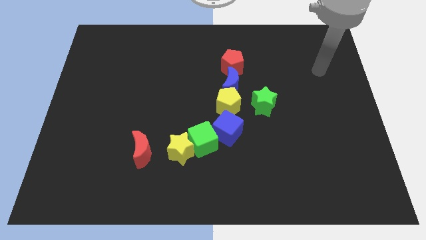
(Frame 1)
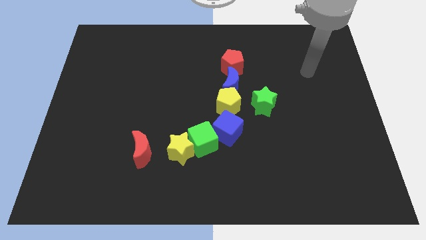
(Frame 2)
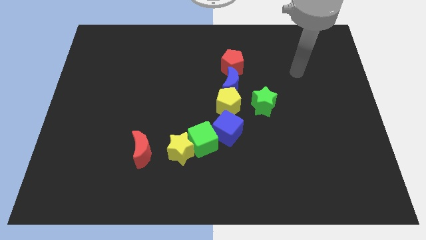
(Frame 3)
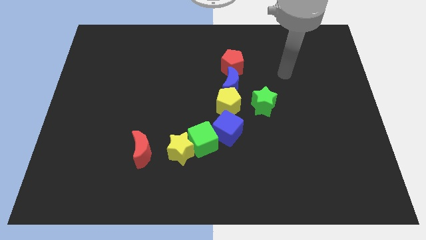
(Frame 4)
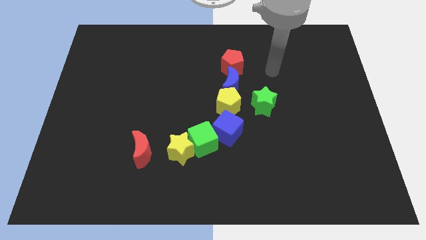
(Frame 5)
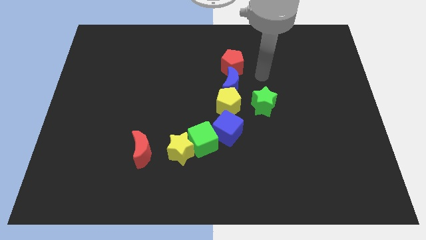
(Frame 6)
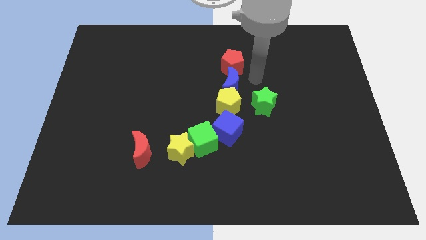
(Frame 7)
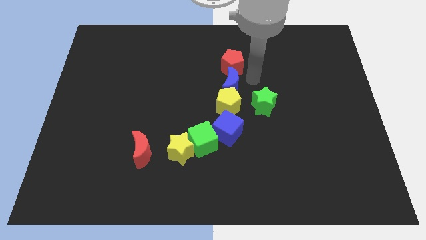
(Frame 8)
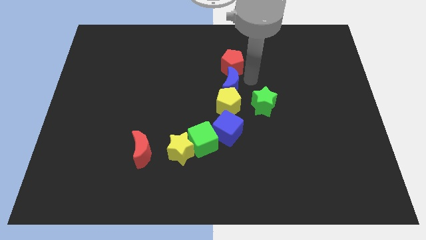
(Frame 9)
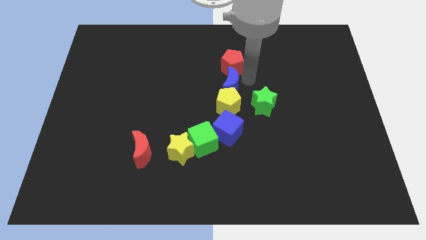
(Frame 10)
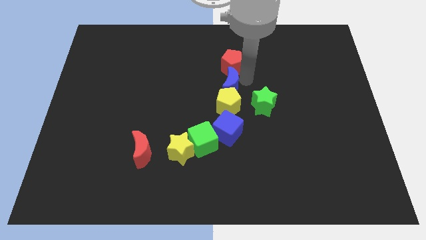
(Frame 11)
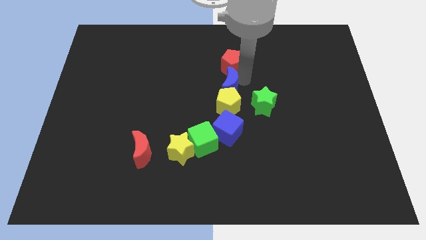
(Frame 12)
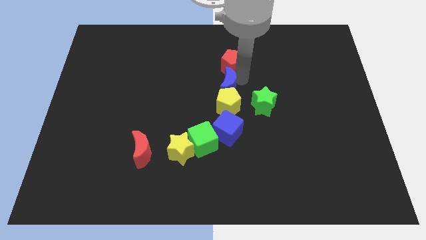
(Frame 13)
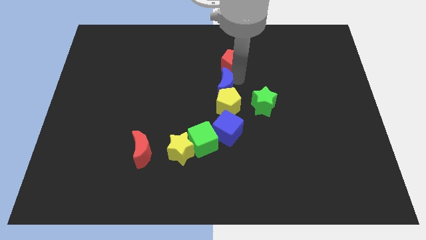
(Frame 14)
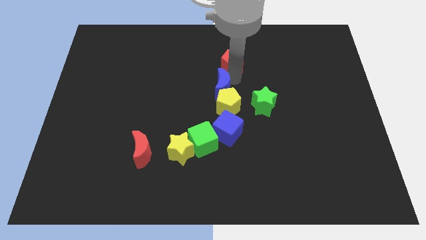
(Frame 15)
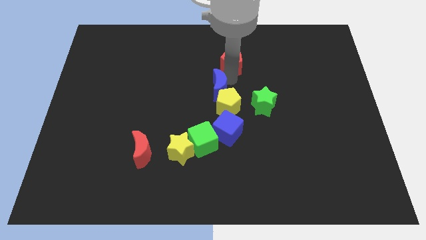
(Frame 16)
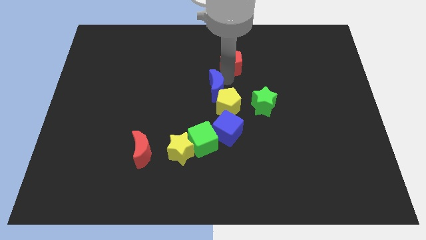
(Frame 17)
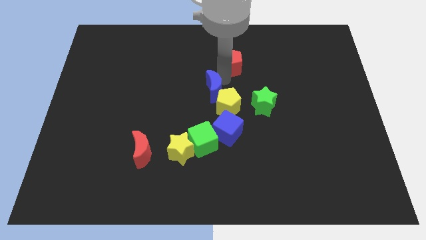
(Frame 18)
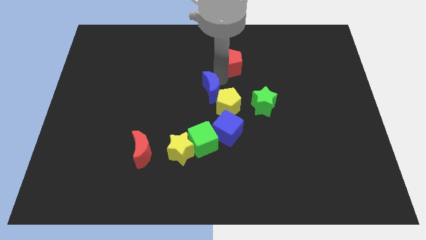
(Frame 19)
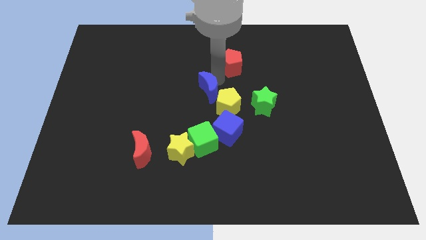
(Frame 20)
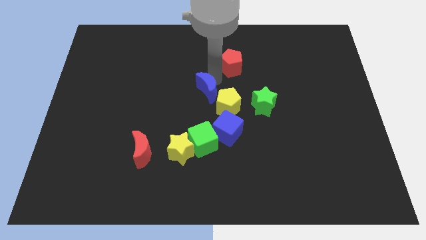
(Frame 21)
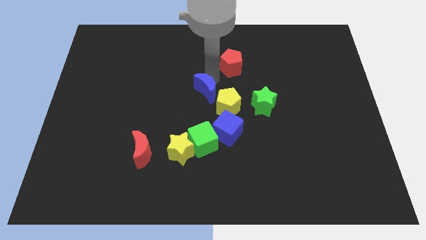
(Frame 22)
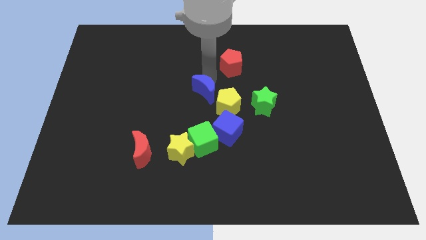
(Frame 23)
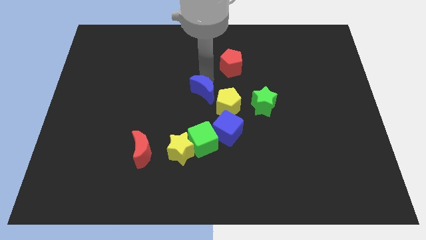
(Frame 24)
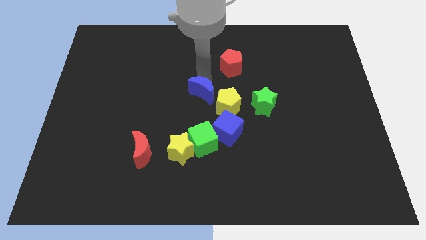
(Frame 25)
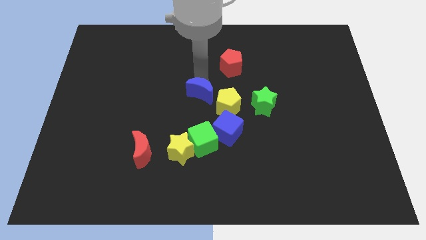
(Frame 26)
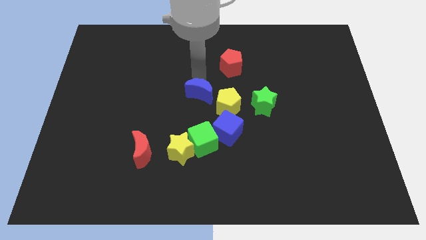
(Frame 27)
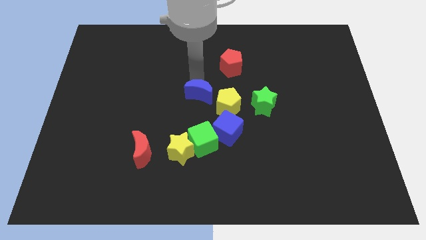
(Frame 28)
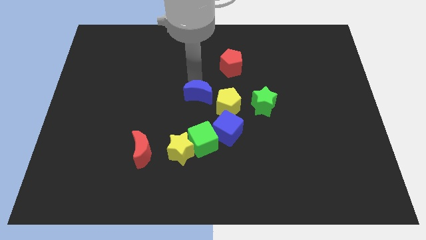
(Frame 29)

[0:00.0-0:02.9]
move the blue moon diagonally downwards and to the left a little

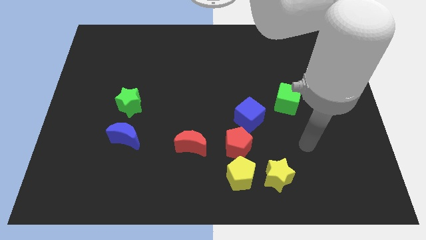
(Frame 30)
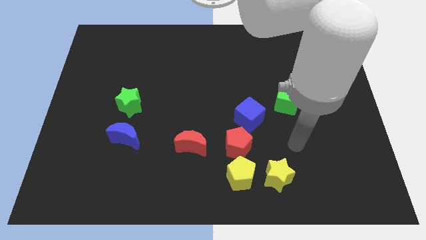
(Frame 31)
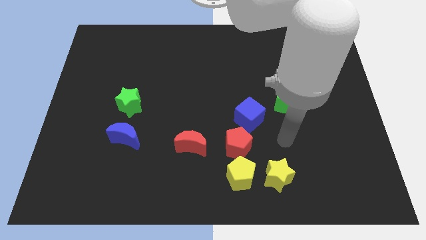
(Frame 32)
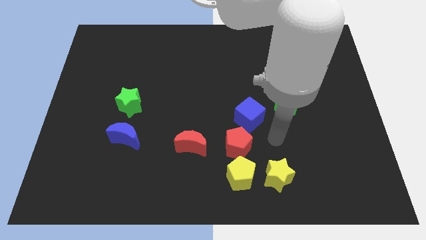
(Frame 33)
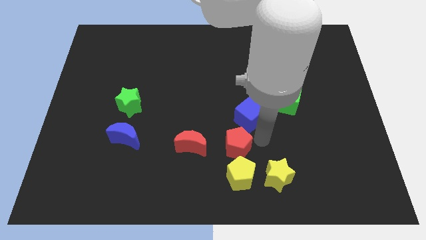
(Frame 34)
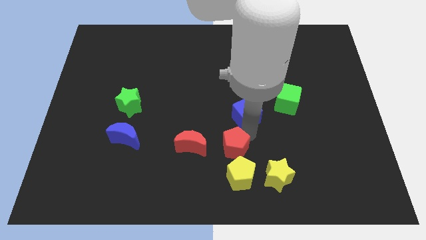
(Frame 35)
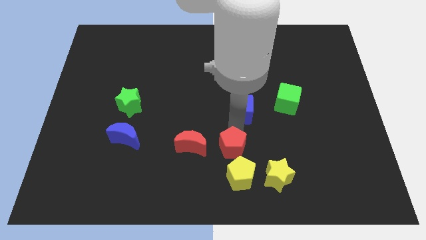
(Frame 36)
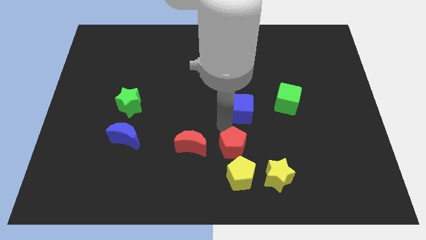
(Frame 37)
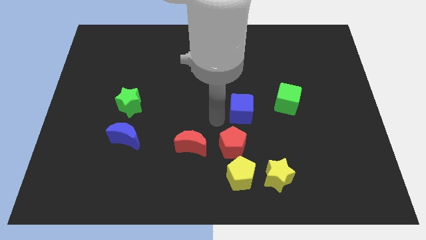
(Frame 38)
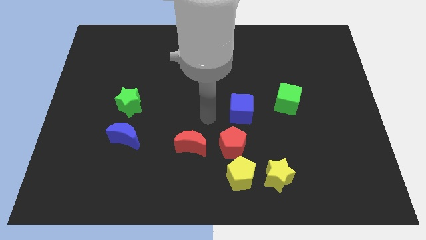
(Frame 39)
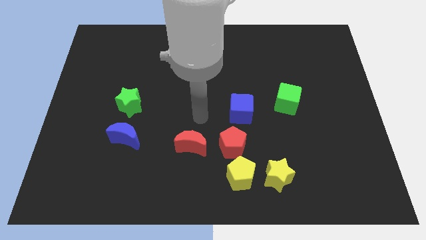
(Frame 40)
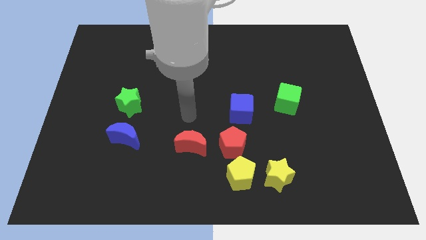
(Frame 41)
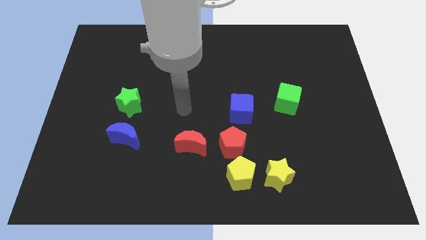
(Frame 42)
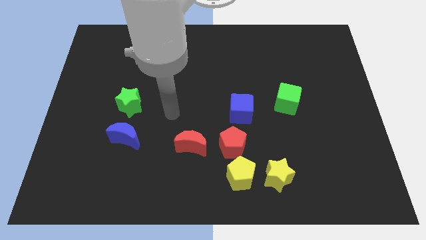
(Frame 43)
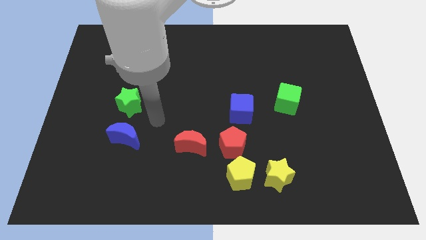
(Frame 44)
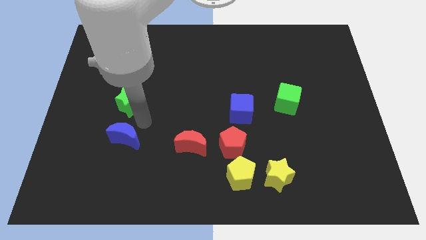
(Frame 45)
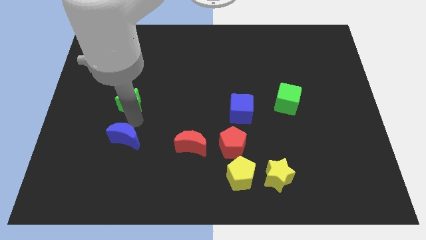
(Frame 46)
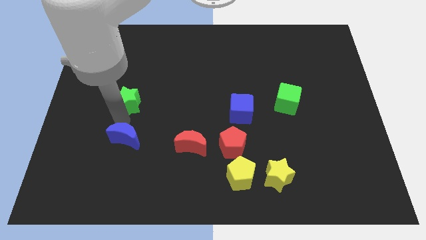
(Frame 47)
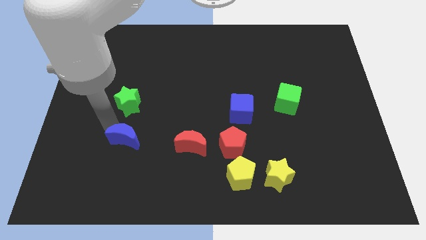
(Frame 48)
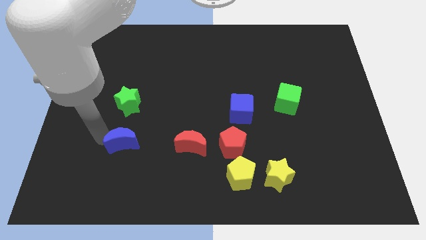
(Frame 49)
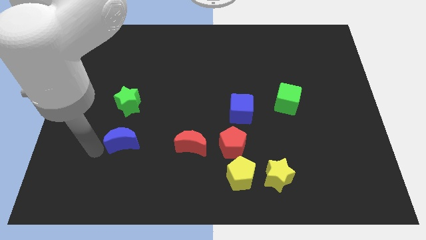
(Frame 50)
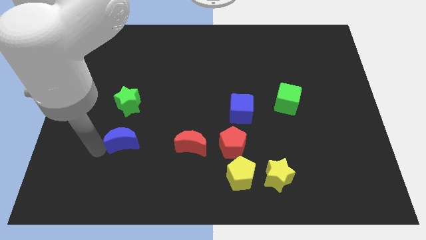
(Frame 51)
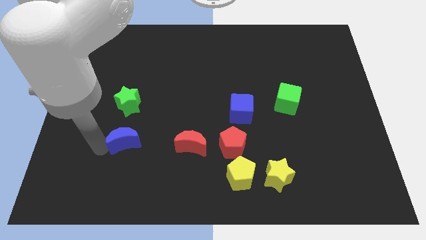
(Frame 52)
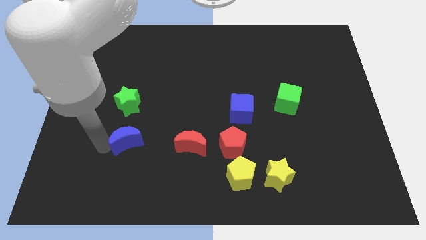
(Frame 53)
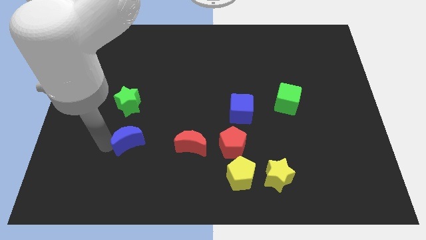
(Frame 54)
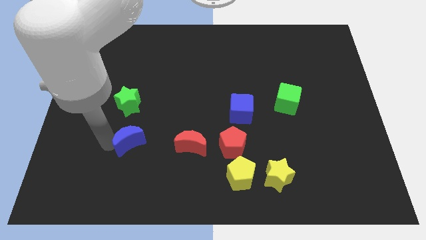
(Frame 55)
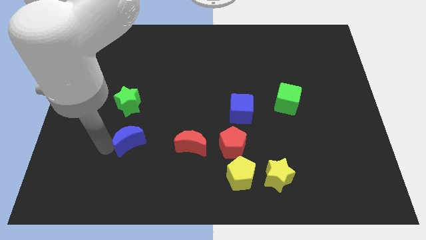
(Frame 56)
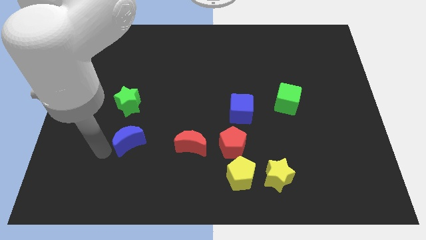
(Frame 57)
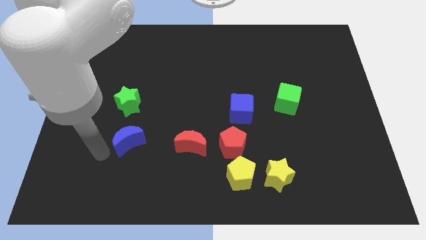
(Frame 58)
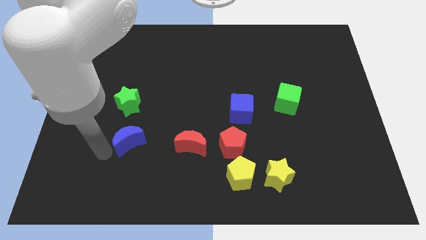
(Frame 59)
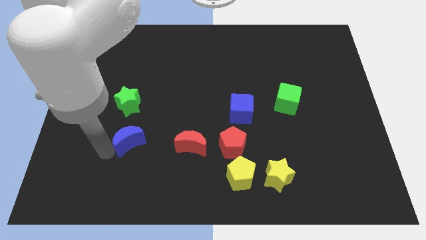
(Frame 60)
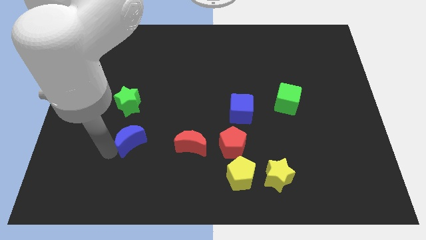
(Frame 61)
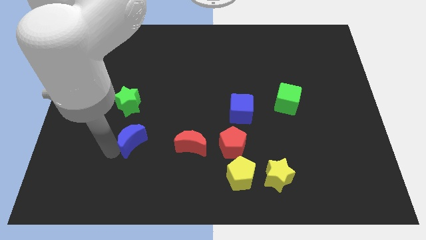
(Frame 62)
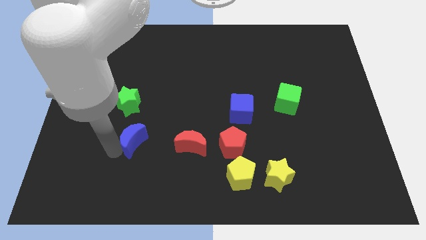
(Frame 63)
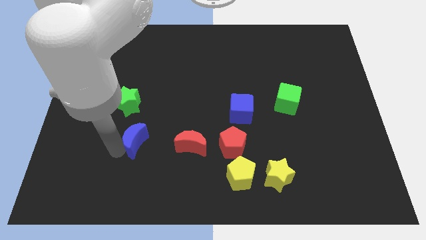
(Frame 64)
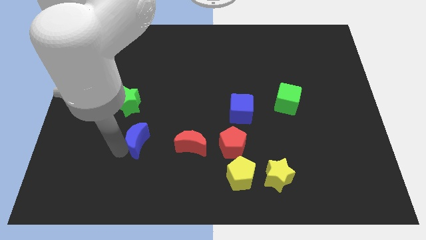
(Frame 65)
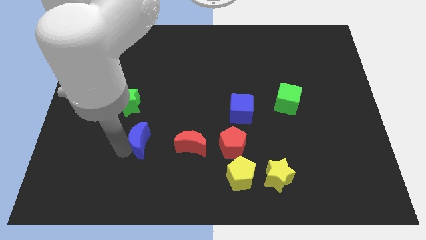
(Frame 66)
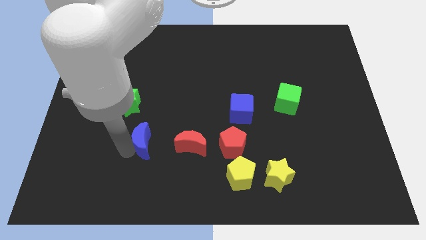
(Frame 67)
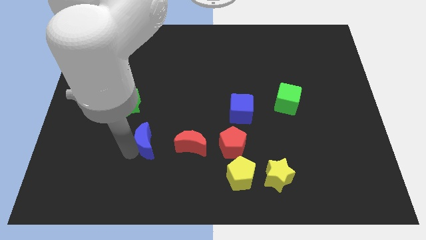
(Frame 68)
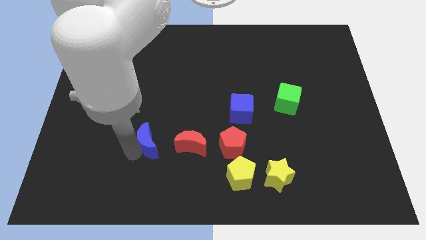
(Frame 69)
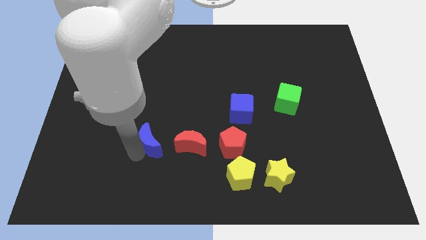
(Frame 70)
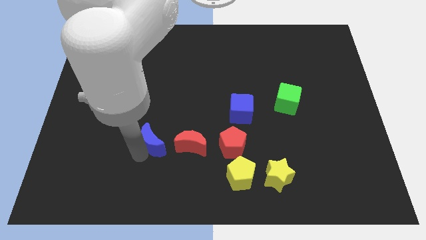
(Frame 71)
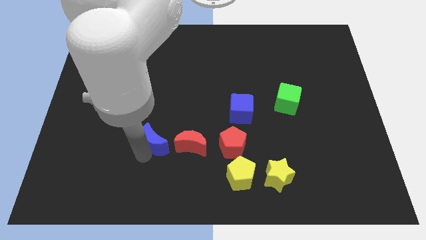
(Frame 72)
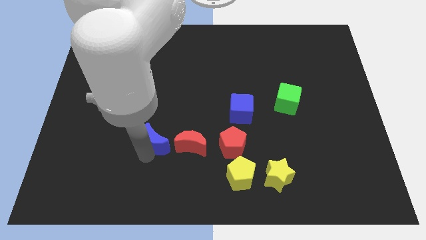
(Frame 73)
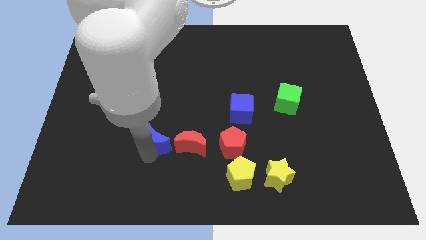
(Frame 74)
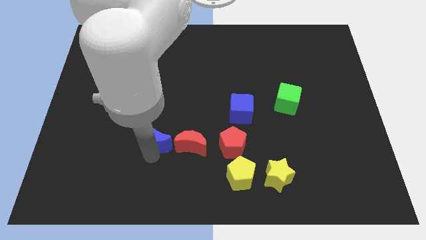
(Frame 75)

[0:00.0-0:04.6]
move the blue moon to the right a little bit

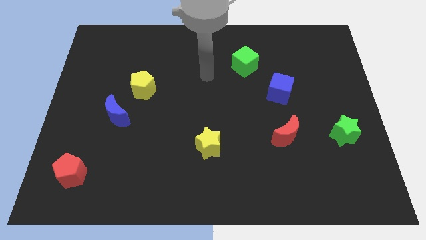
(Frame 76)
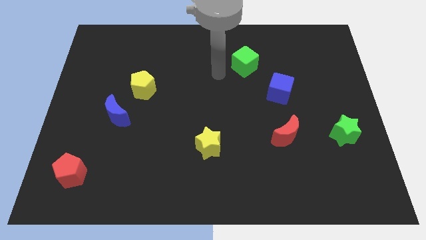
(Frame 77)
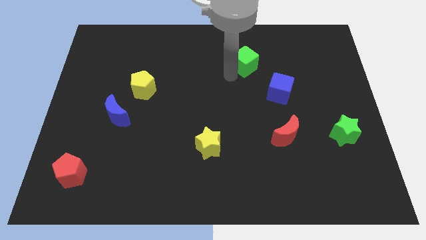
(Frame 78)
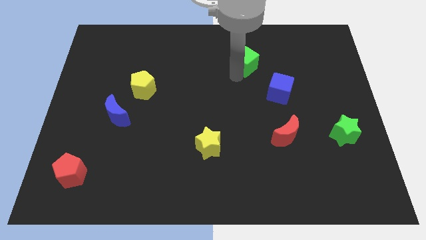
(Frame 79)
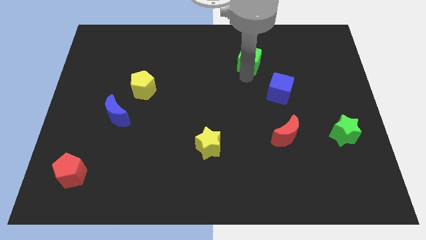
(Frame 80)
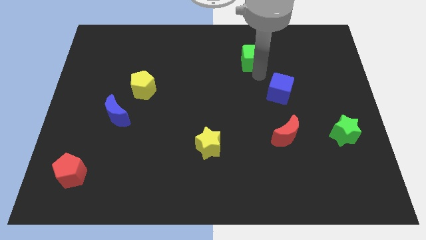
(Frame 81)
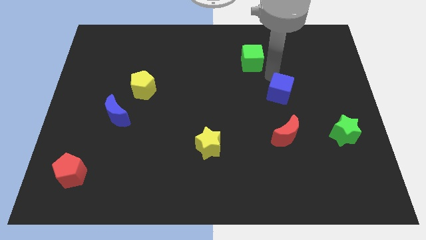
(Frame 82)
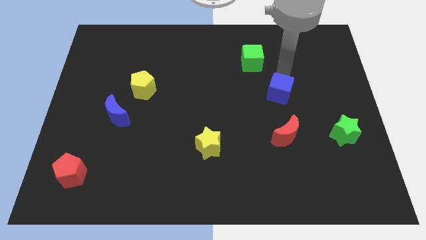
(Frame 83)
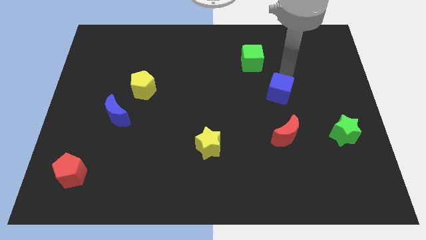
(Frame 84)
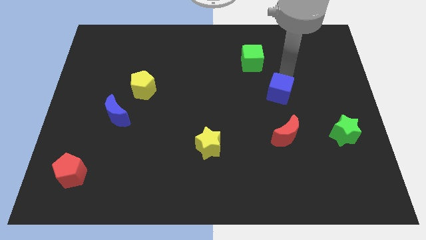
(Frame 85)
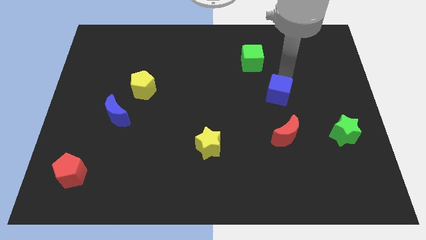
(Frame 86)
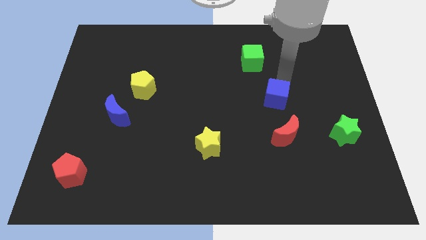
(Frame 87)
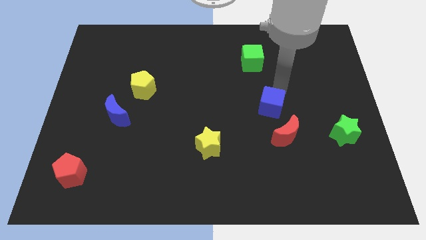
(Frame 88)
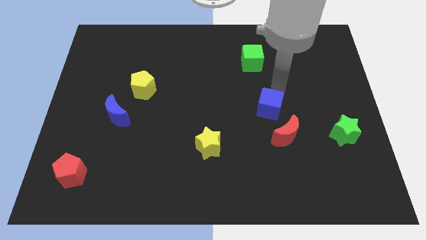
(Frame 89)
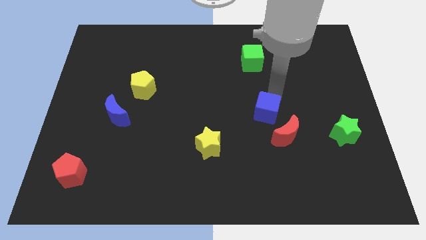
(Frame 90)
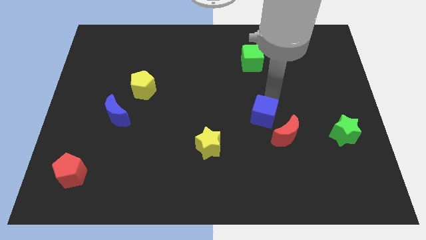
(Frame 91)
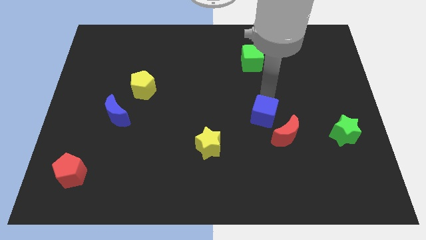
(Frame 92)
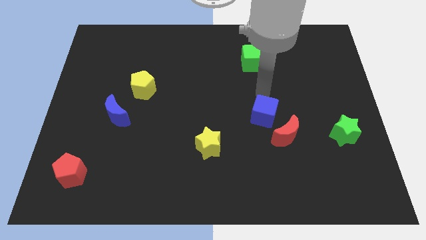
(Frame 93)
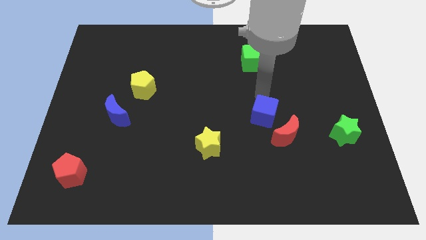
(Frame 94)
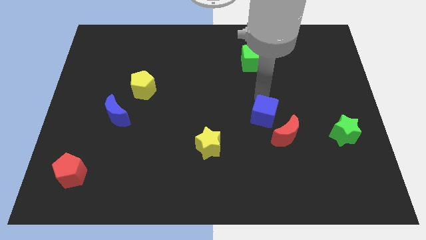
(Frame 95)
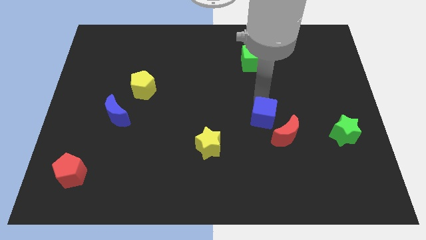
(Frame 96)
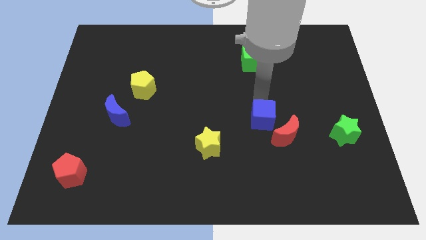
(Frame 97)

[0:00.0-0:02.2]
slide the blue cube down slightly
